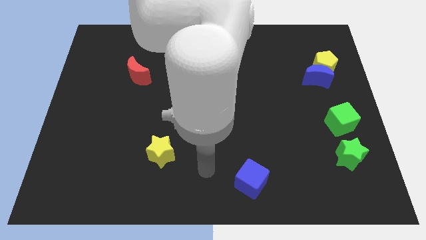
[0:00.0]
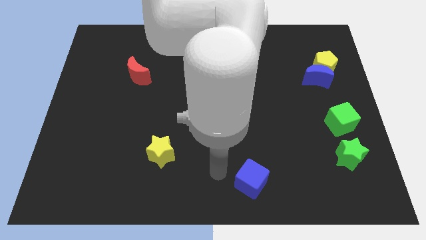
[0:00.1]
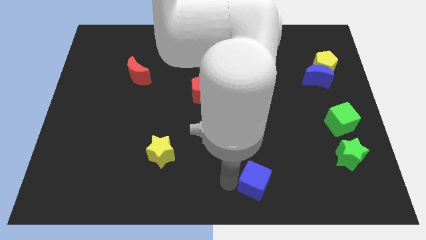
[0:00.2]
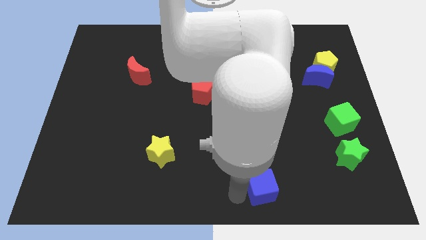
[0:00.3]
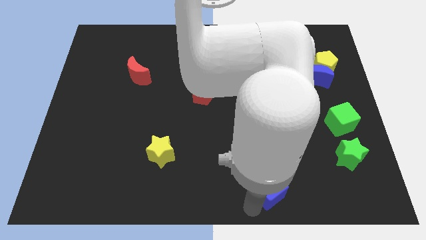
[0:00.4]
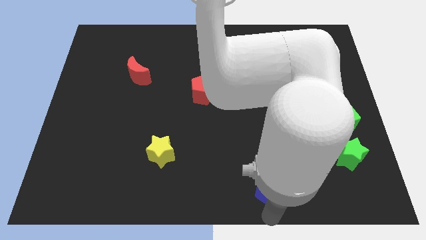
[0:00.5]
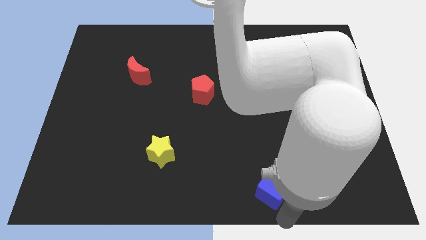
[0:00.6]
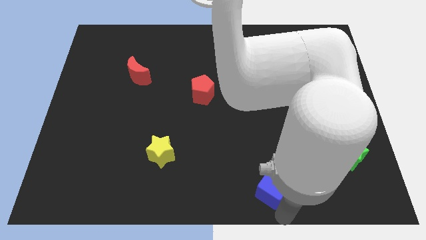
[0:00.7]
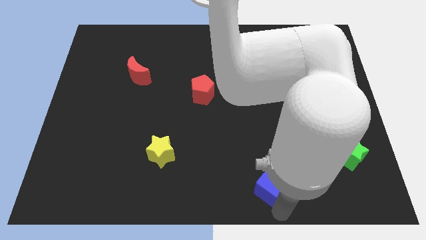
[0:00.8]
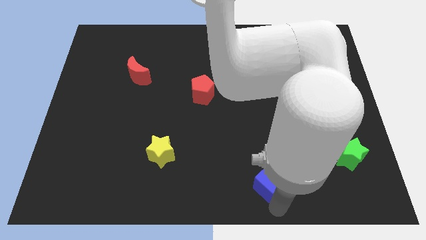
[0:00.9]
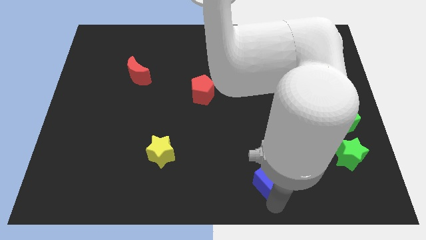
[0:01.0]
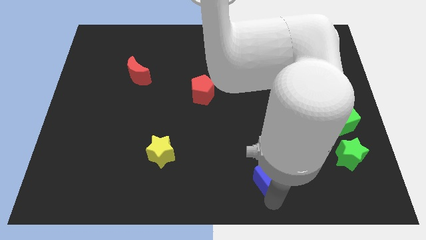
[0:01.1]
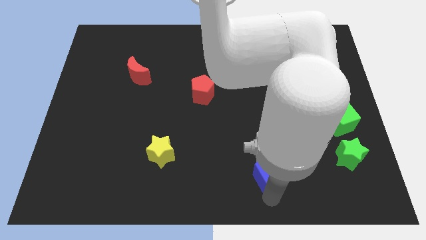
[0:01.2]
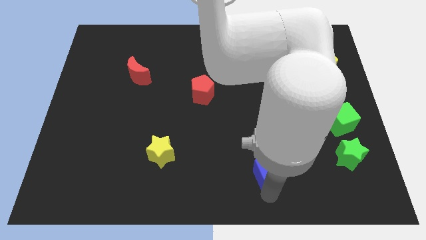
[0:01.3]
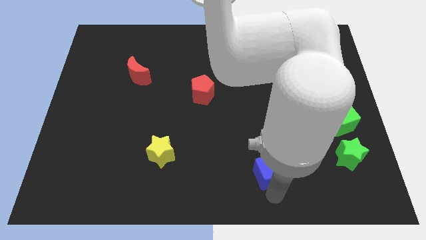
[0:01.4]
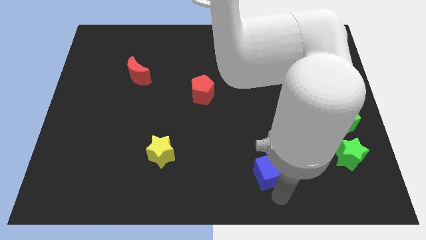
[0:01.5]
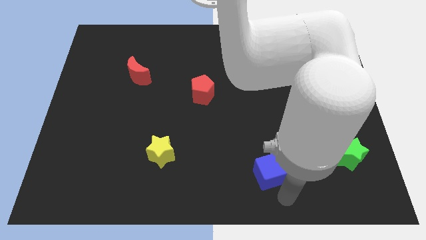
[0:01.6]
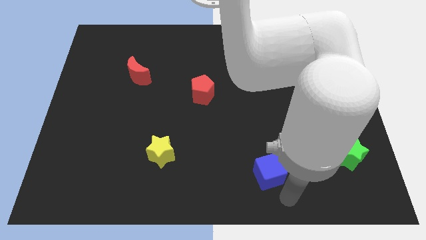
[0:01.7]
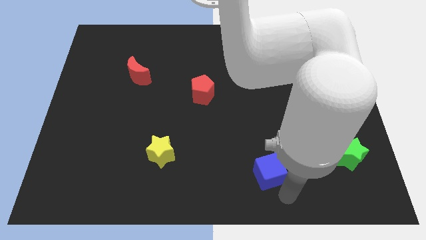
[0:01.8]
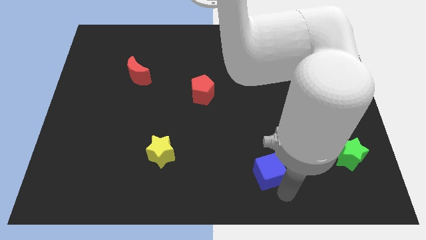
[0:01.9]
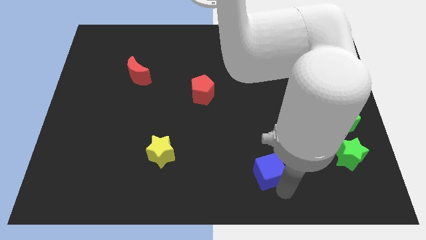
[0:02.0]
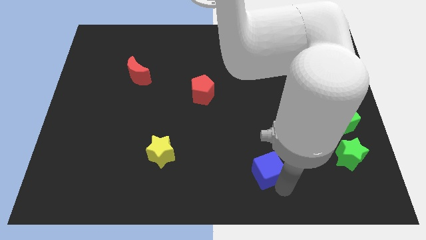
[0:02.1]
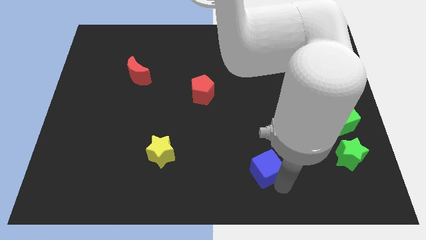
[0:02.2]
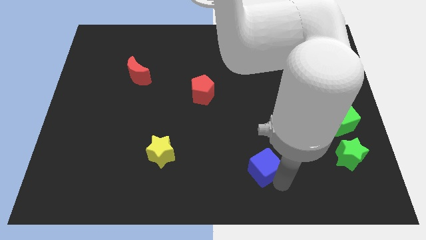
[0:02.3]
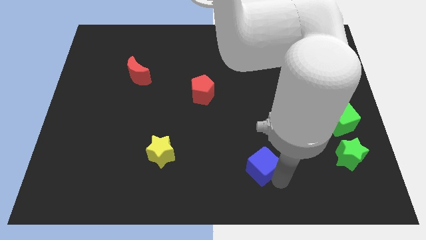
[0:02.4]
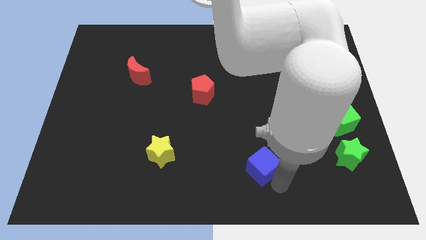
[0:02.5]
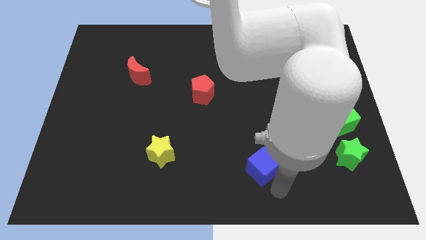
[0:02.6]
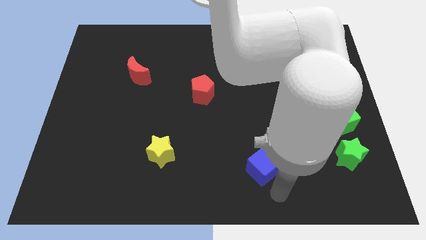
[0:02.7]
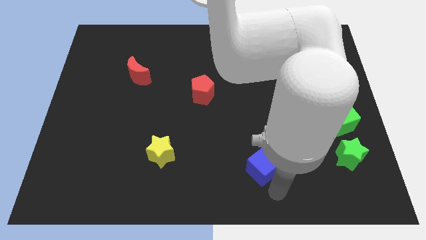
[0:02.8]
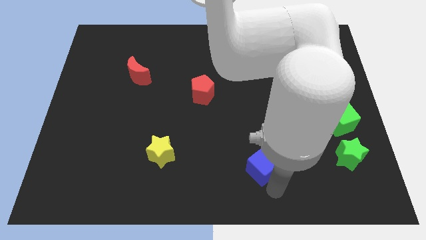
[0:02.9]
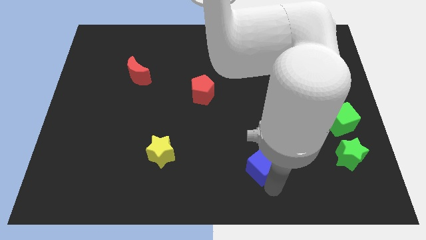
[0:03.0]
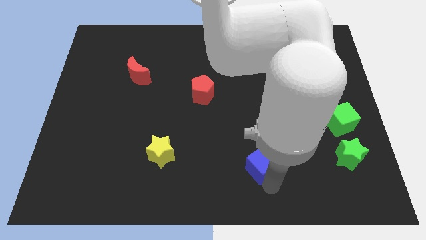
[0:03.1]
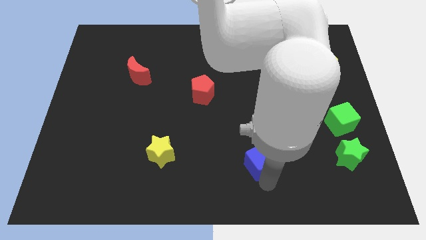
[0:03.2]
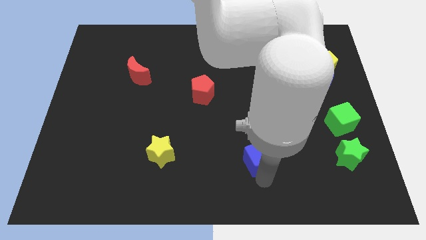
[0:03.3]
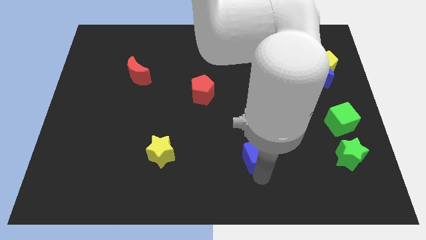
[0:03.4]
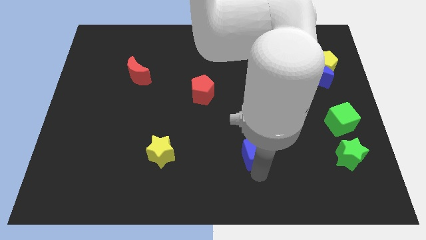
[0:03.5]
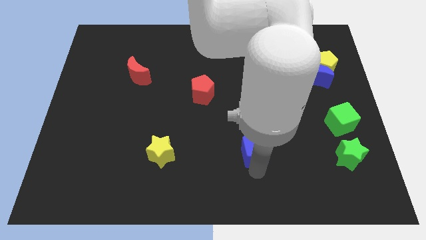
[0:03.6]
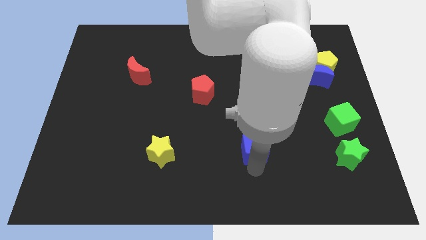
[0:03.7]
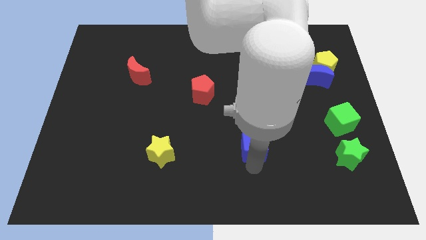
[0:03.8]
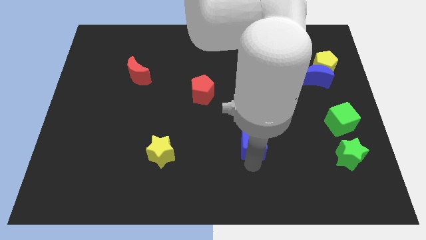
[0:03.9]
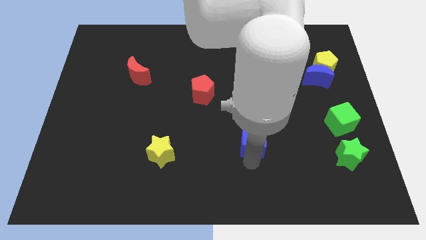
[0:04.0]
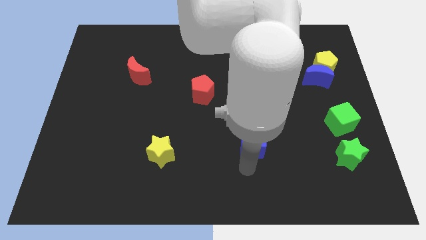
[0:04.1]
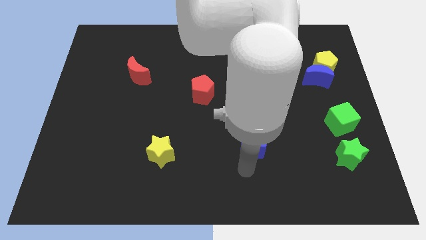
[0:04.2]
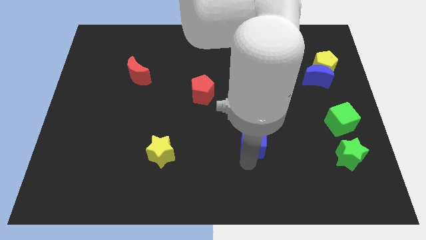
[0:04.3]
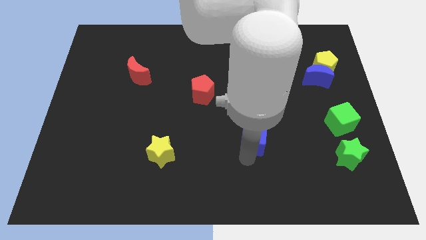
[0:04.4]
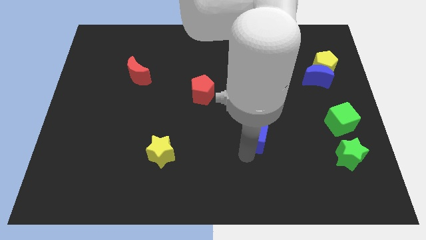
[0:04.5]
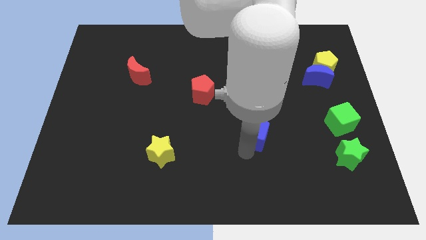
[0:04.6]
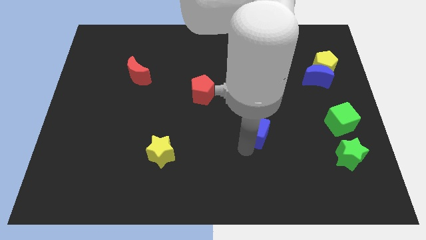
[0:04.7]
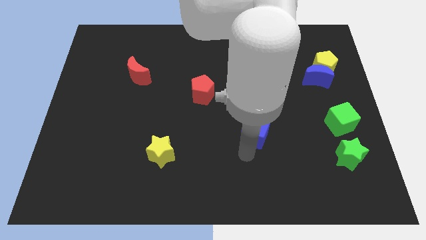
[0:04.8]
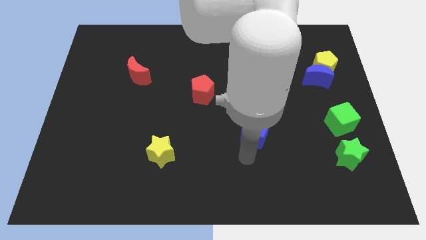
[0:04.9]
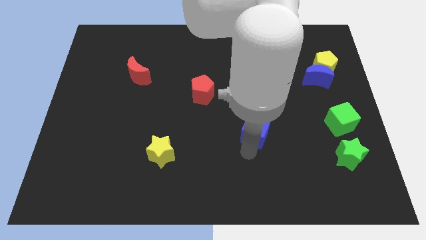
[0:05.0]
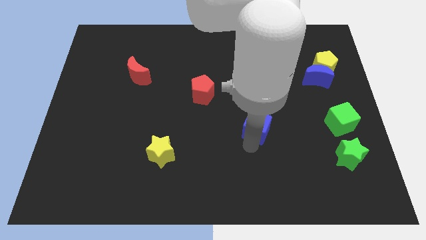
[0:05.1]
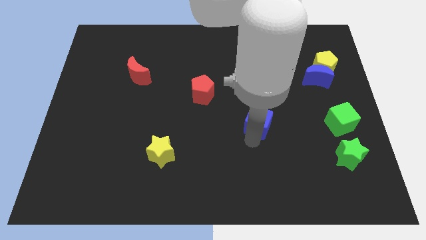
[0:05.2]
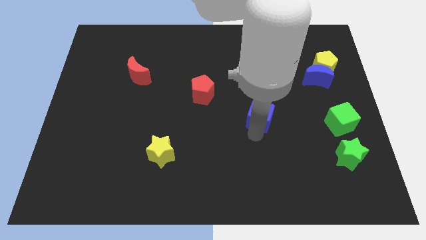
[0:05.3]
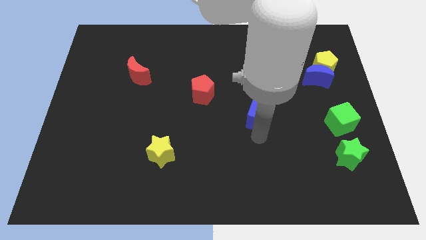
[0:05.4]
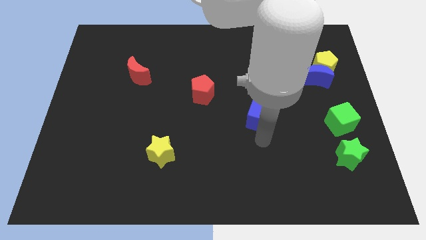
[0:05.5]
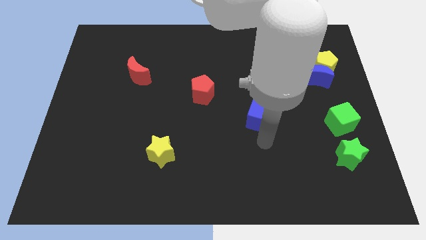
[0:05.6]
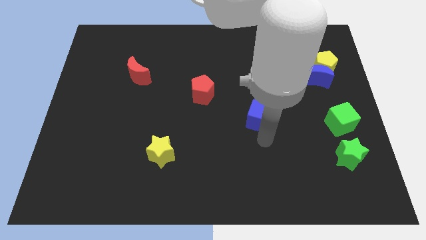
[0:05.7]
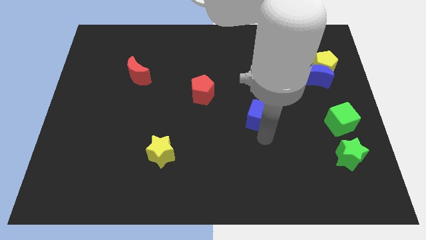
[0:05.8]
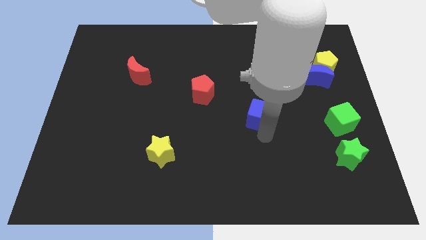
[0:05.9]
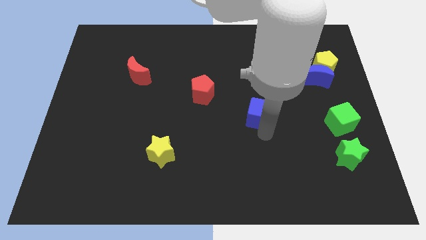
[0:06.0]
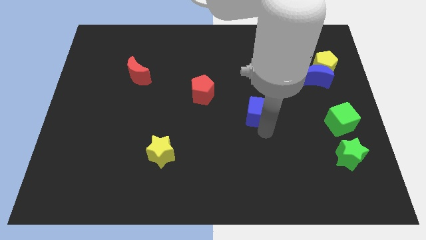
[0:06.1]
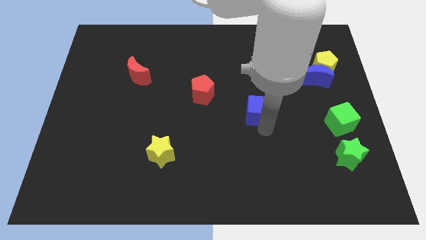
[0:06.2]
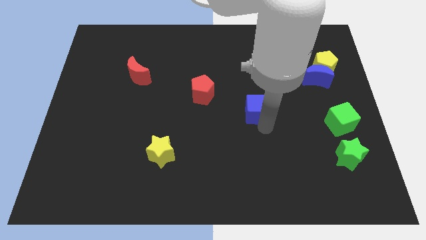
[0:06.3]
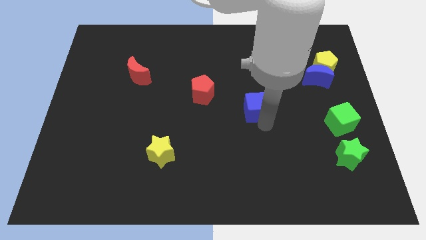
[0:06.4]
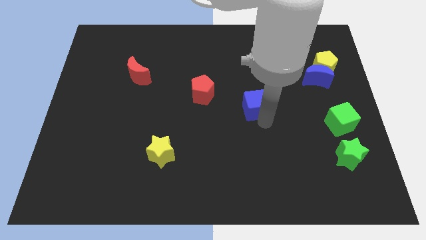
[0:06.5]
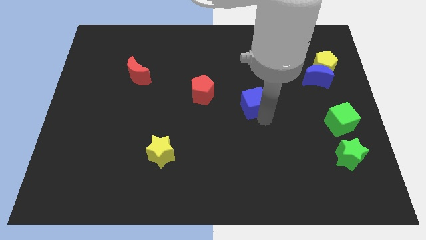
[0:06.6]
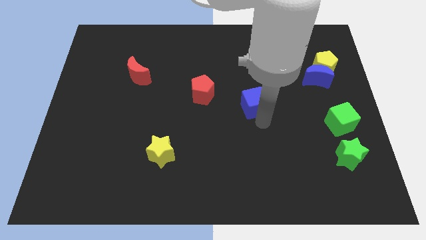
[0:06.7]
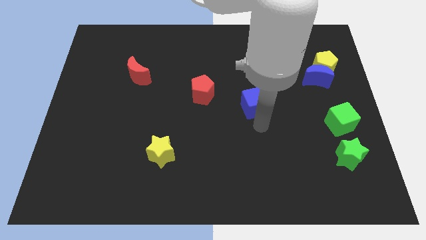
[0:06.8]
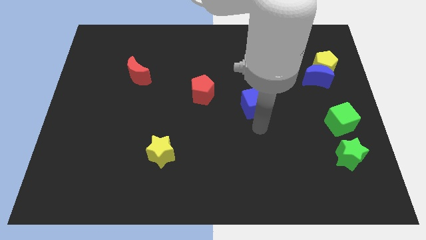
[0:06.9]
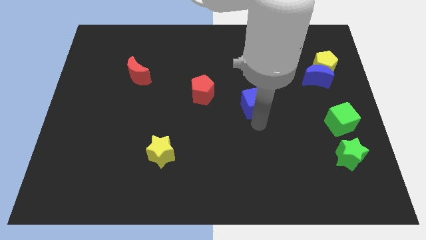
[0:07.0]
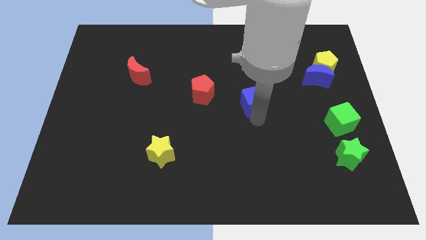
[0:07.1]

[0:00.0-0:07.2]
push the blue cube upwards

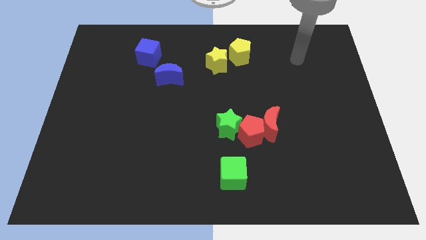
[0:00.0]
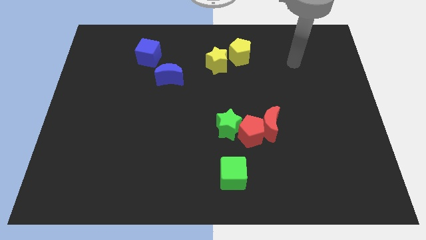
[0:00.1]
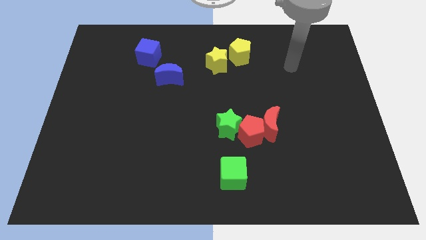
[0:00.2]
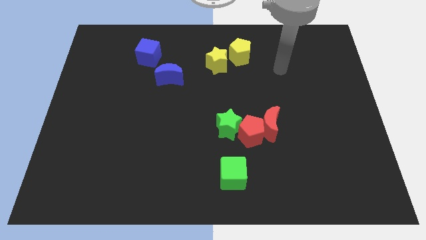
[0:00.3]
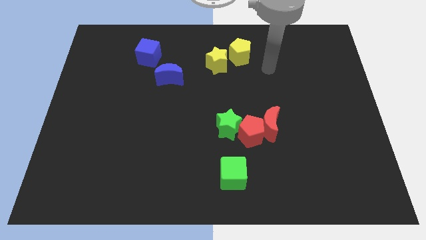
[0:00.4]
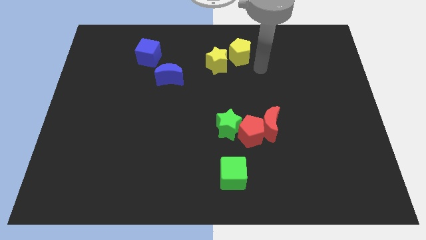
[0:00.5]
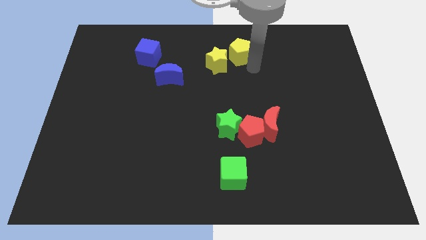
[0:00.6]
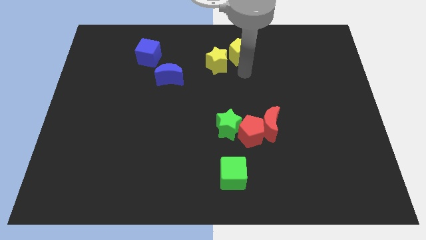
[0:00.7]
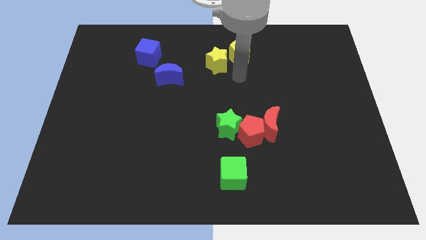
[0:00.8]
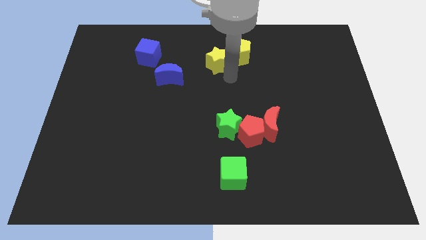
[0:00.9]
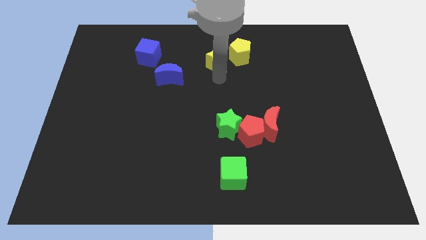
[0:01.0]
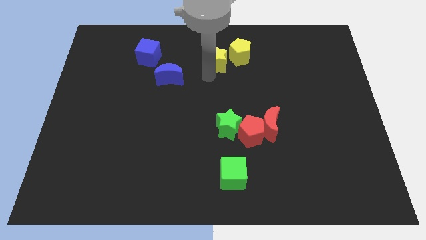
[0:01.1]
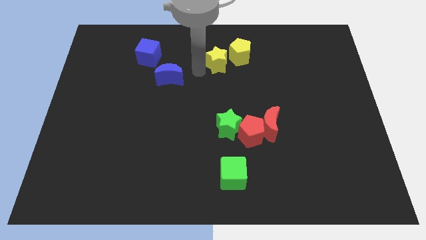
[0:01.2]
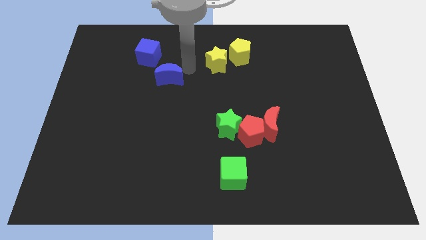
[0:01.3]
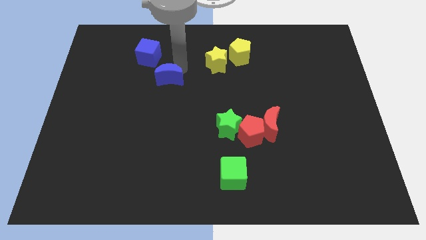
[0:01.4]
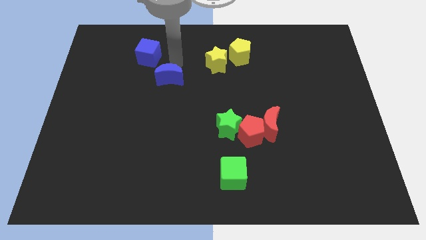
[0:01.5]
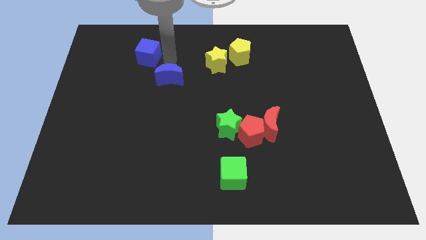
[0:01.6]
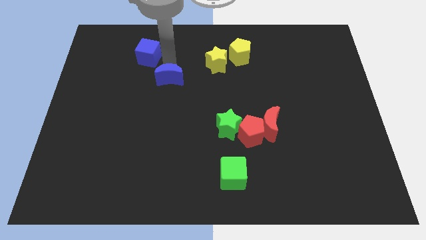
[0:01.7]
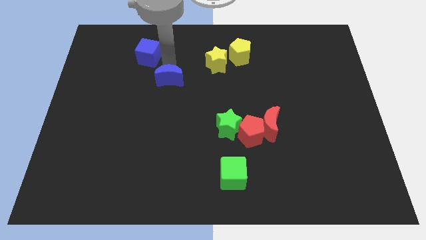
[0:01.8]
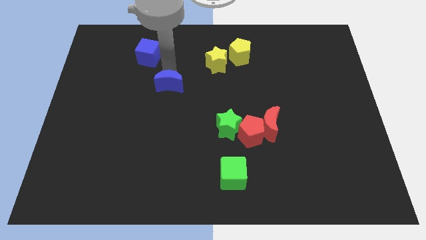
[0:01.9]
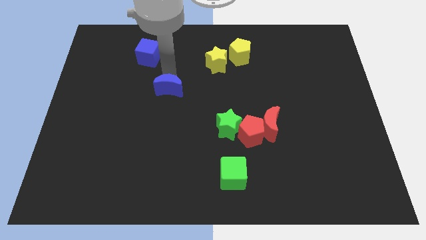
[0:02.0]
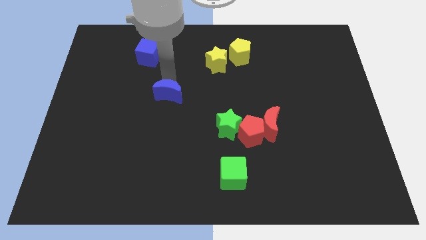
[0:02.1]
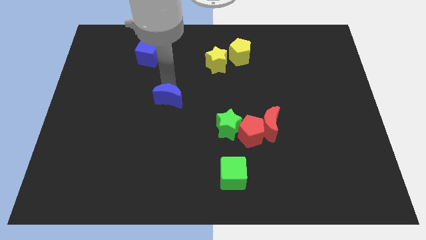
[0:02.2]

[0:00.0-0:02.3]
slightly move the blue moon downwards
